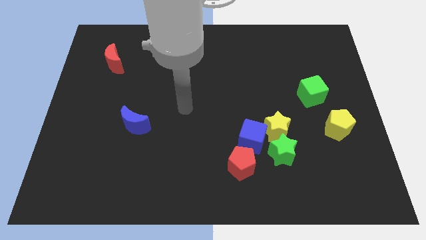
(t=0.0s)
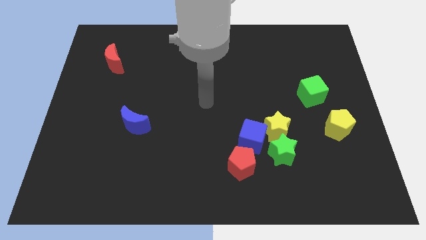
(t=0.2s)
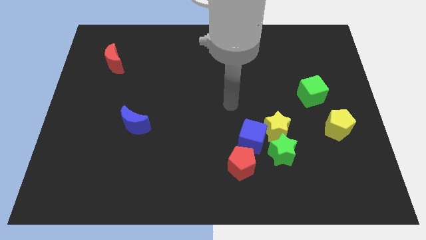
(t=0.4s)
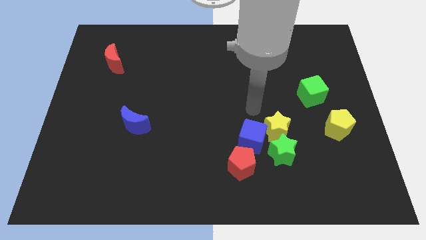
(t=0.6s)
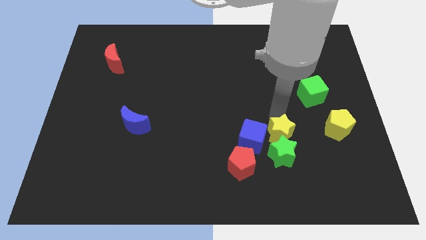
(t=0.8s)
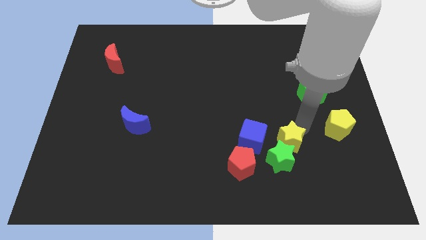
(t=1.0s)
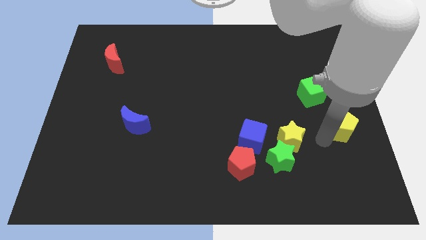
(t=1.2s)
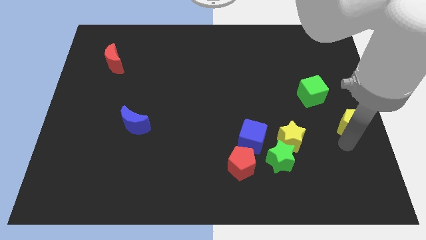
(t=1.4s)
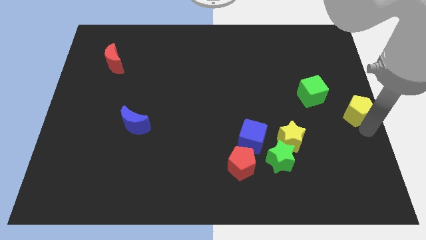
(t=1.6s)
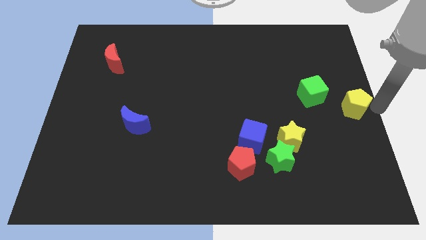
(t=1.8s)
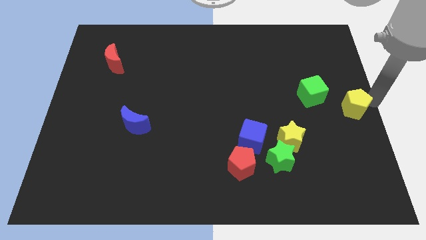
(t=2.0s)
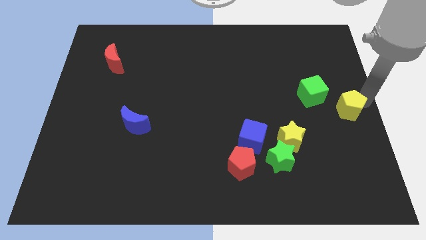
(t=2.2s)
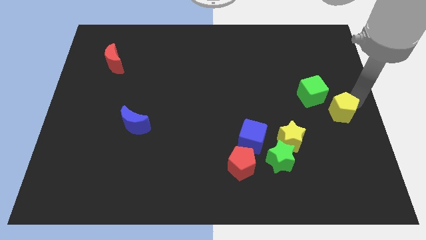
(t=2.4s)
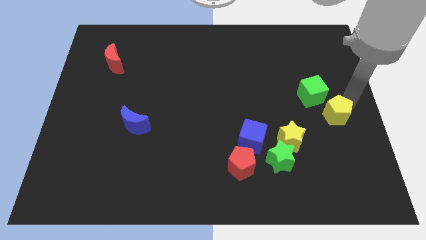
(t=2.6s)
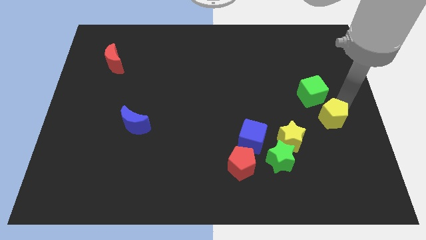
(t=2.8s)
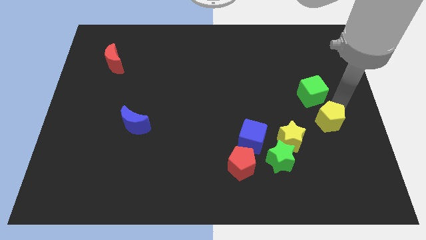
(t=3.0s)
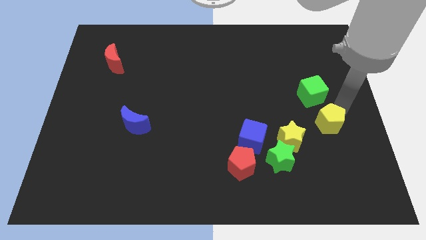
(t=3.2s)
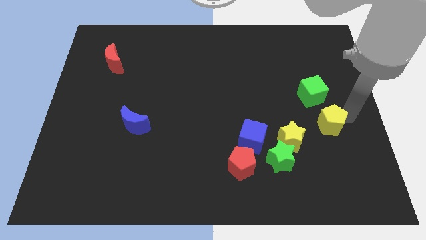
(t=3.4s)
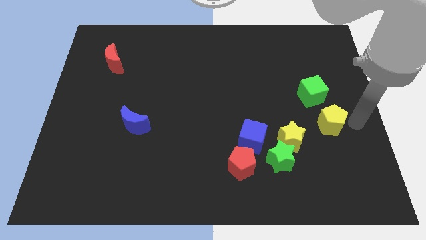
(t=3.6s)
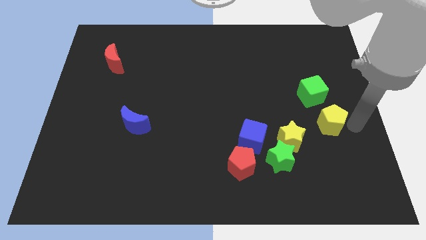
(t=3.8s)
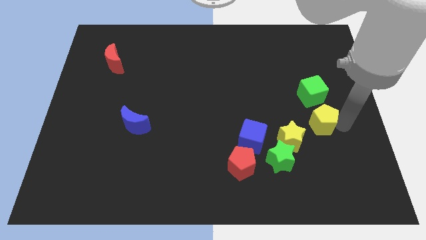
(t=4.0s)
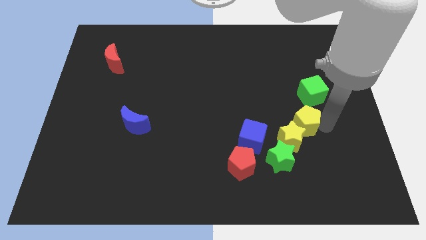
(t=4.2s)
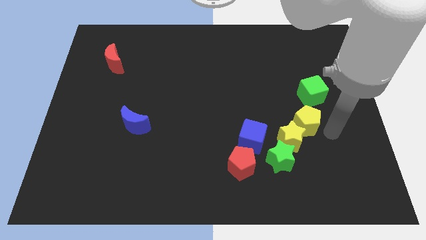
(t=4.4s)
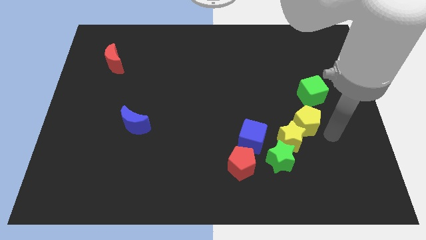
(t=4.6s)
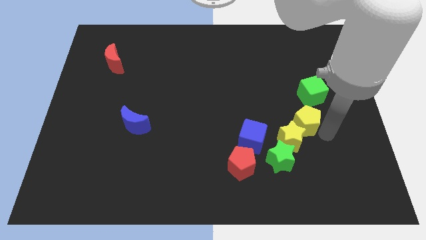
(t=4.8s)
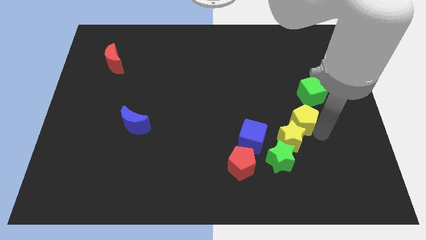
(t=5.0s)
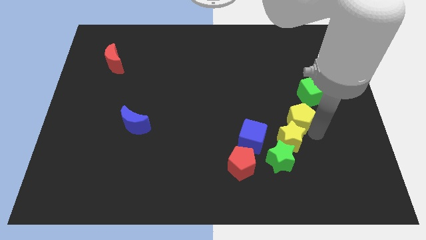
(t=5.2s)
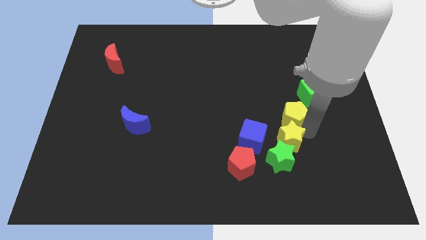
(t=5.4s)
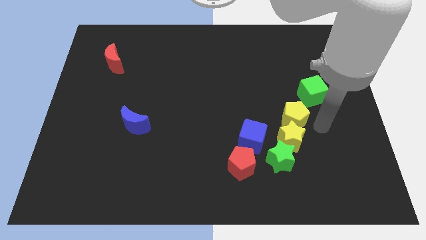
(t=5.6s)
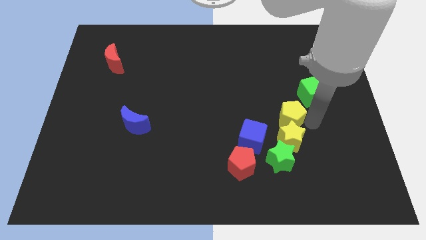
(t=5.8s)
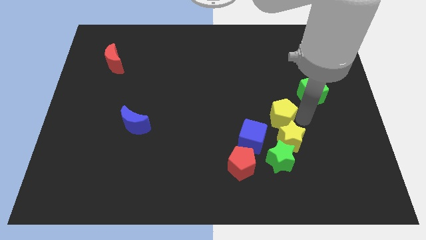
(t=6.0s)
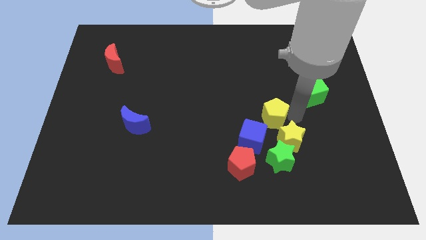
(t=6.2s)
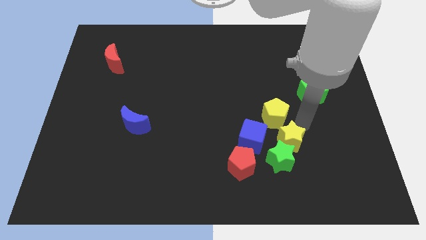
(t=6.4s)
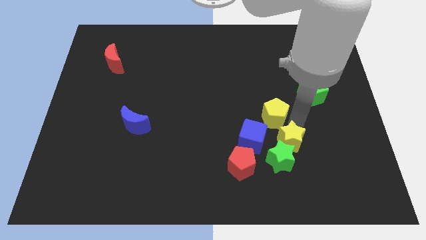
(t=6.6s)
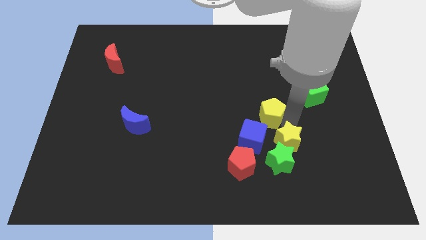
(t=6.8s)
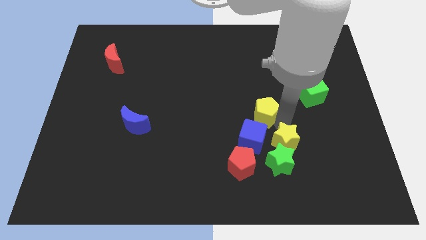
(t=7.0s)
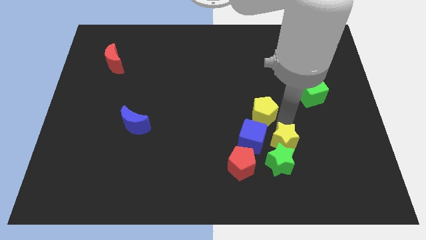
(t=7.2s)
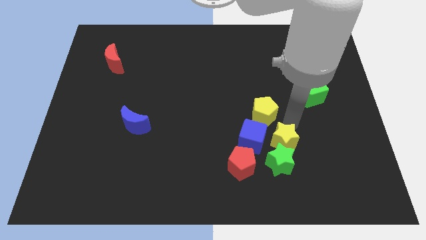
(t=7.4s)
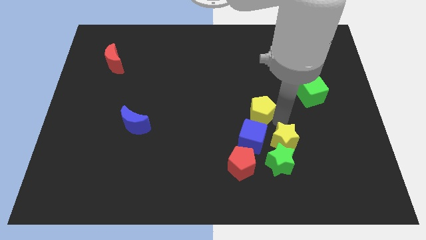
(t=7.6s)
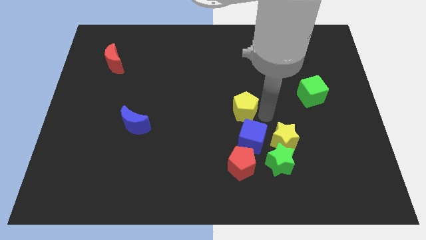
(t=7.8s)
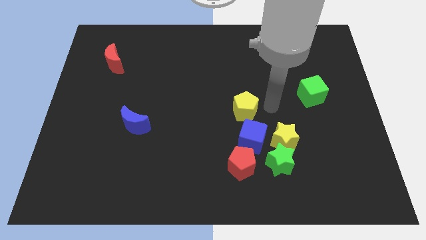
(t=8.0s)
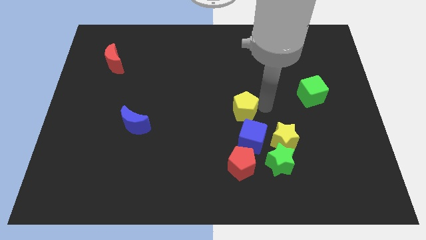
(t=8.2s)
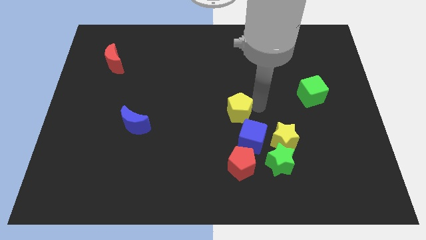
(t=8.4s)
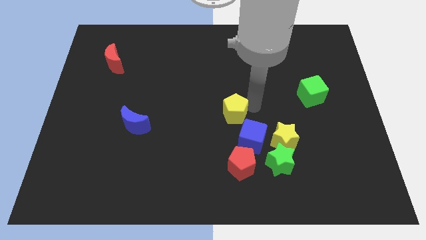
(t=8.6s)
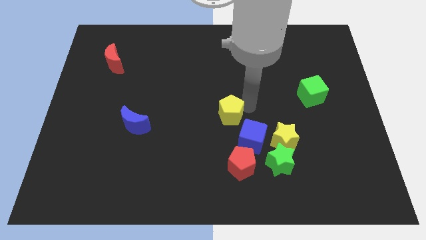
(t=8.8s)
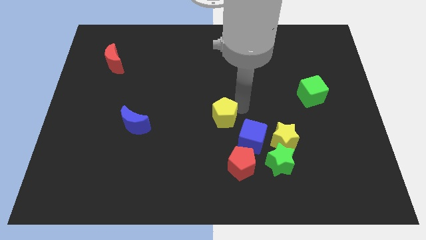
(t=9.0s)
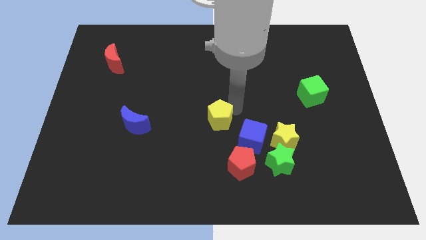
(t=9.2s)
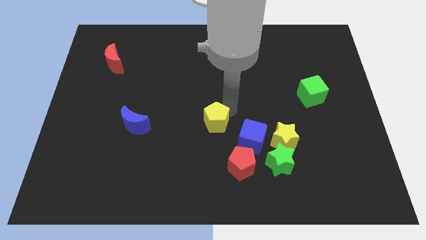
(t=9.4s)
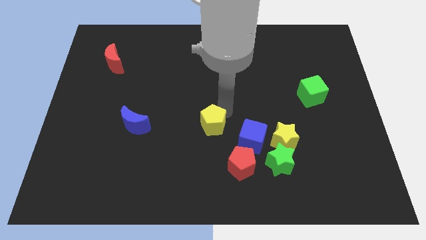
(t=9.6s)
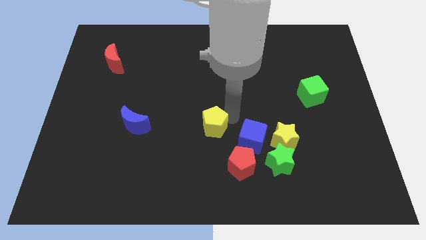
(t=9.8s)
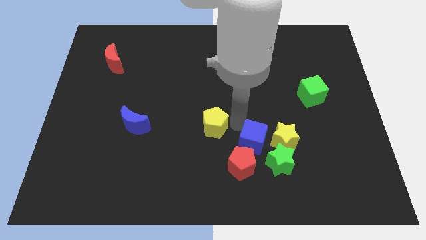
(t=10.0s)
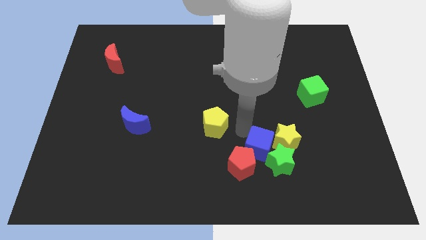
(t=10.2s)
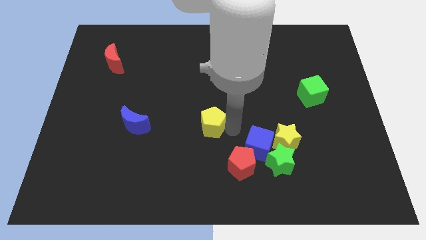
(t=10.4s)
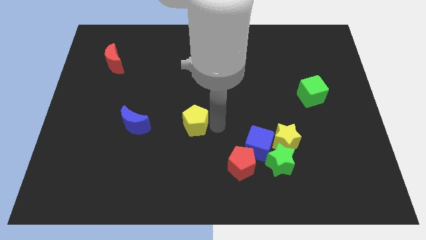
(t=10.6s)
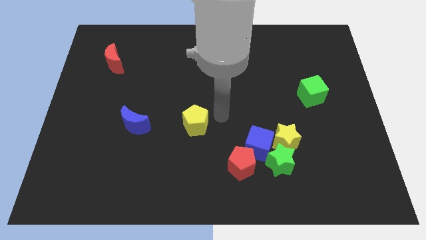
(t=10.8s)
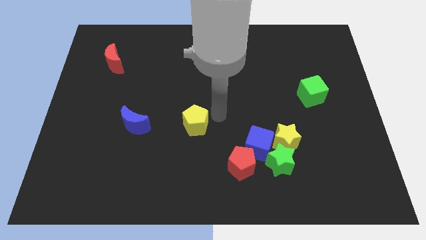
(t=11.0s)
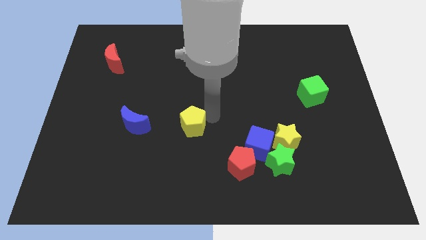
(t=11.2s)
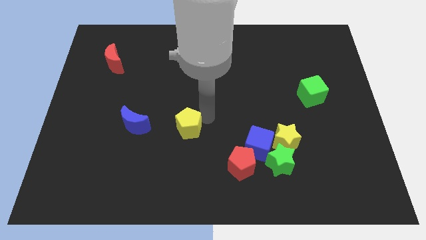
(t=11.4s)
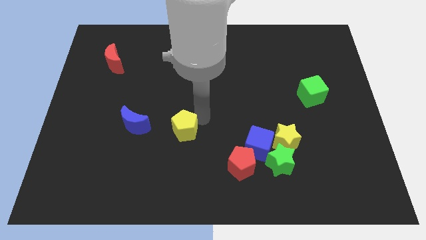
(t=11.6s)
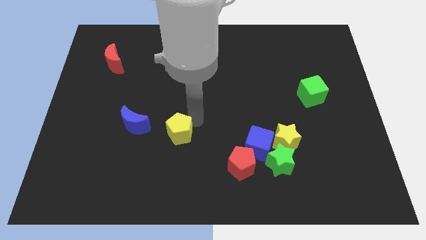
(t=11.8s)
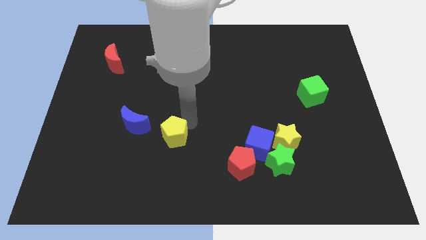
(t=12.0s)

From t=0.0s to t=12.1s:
push the yellow pentagon to the bottom right side of the blue moon
